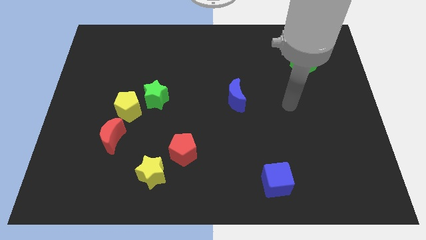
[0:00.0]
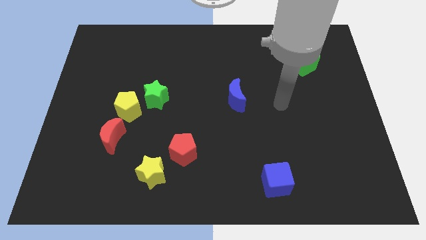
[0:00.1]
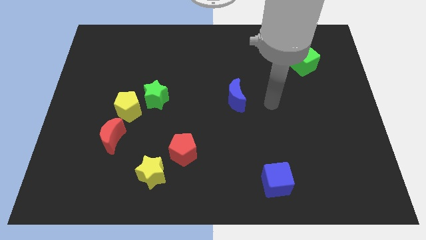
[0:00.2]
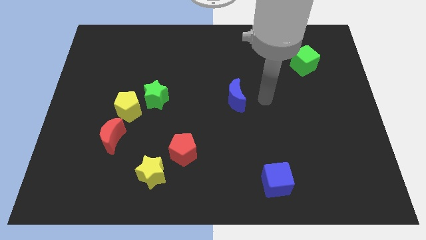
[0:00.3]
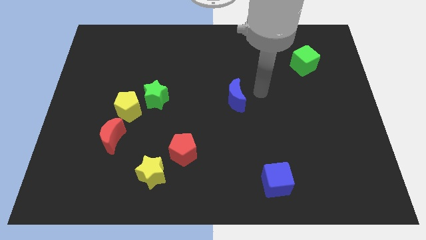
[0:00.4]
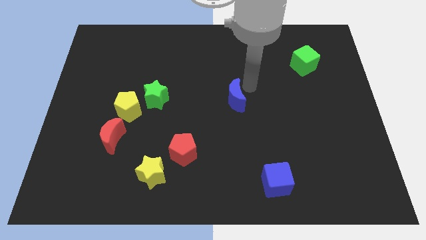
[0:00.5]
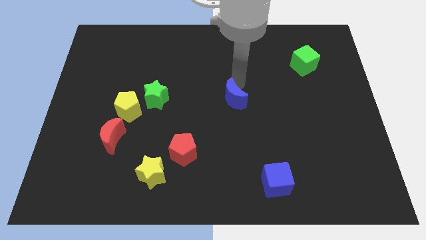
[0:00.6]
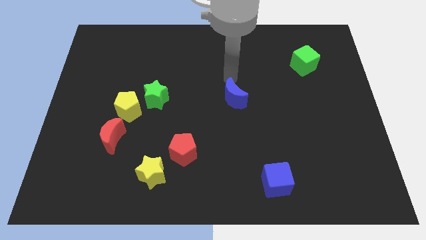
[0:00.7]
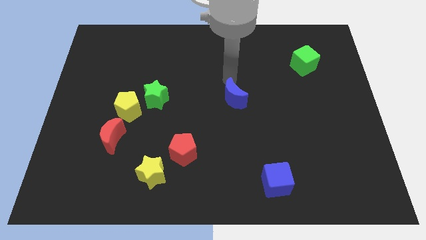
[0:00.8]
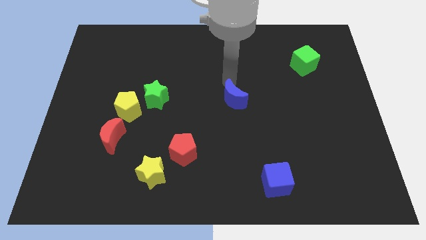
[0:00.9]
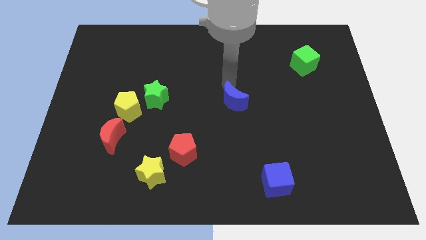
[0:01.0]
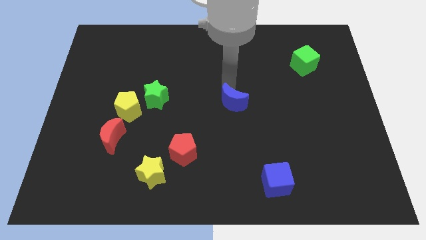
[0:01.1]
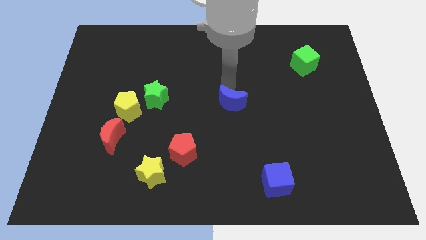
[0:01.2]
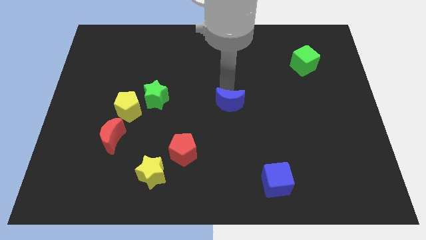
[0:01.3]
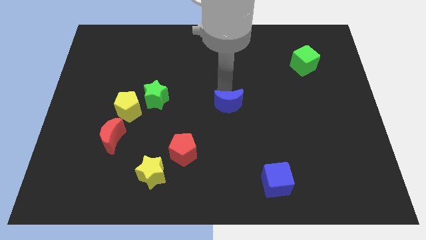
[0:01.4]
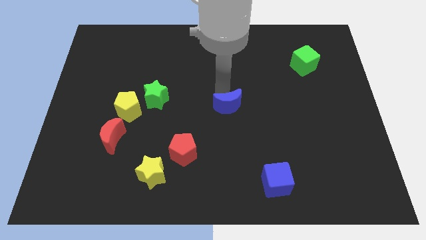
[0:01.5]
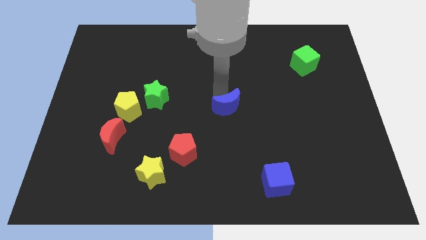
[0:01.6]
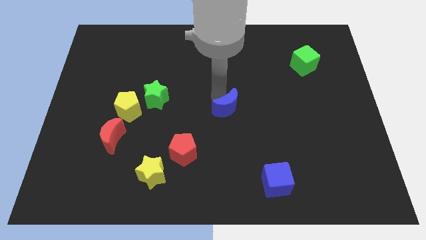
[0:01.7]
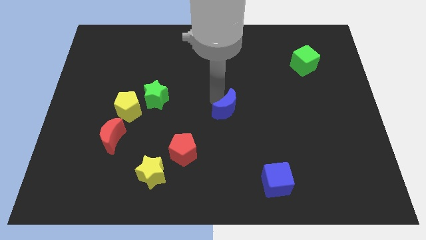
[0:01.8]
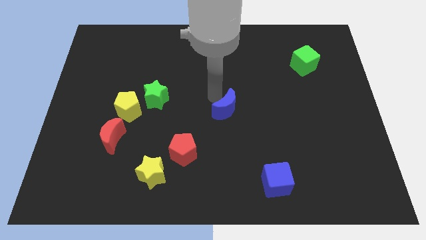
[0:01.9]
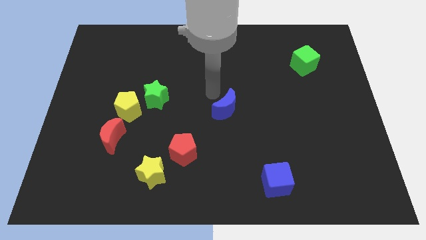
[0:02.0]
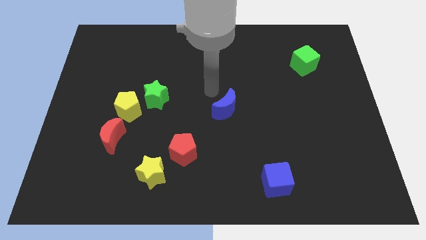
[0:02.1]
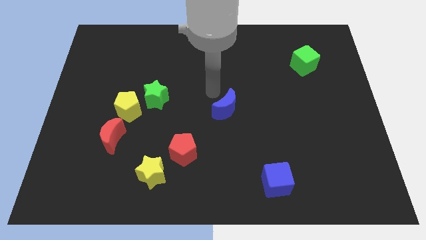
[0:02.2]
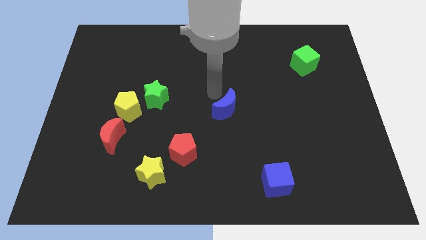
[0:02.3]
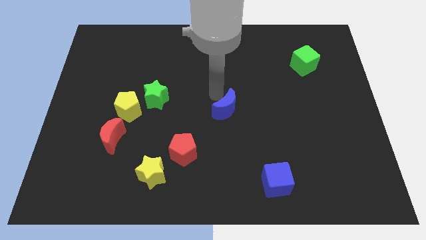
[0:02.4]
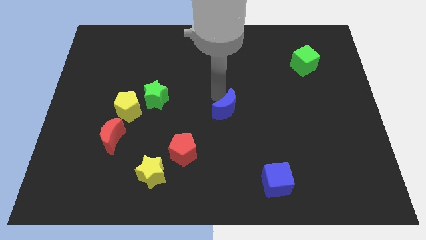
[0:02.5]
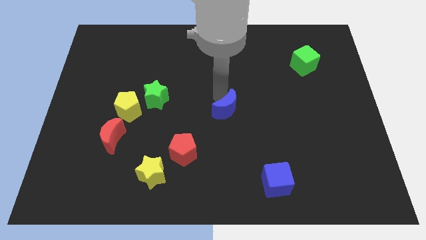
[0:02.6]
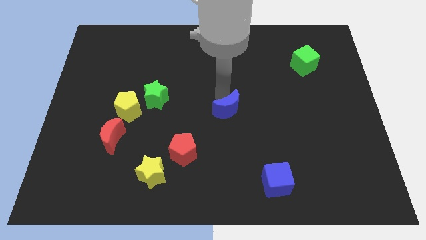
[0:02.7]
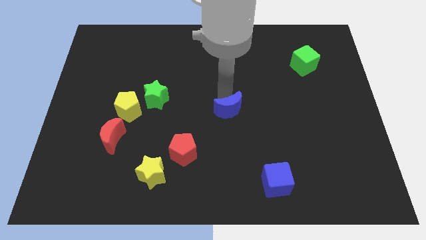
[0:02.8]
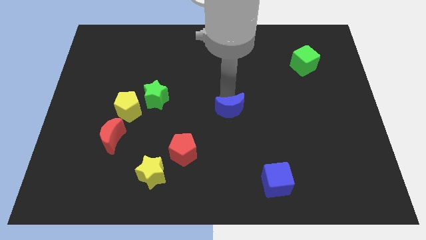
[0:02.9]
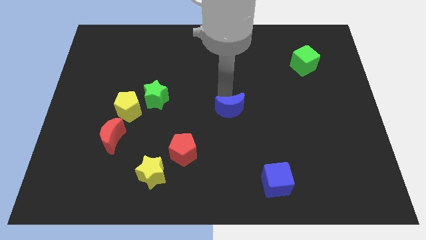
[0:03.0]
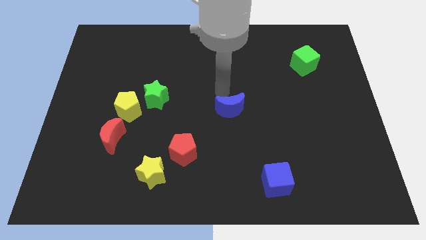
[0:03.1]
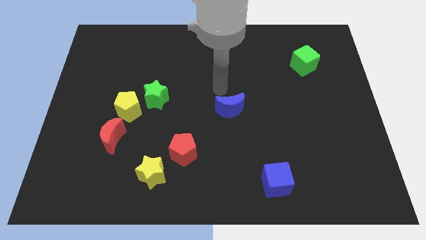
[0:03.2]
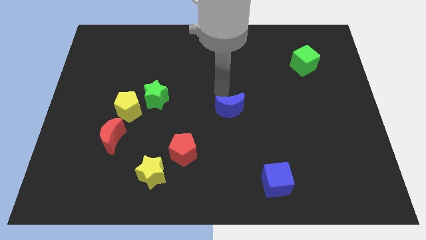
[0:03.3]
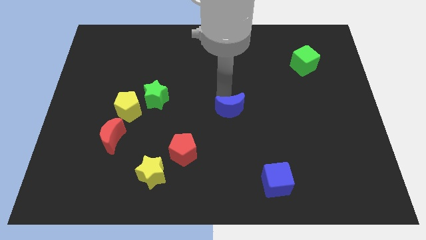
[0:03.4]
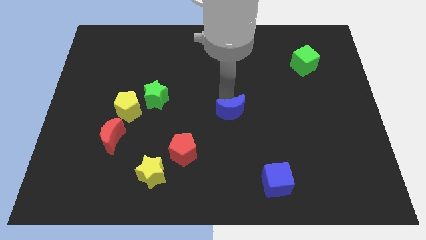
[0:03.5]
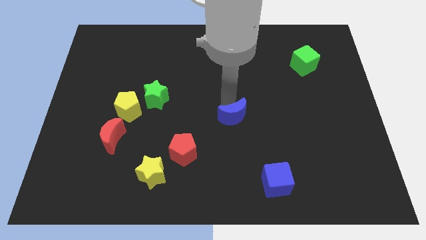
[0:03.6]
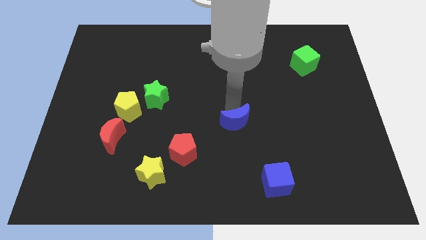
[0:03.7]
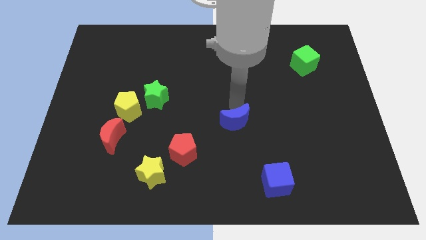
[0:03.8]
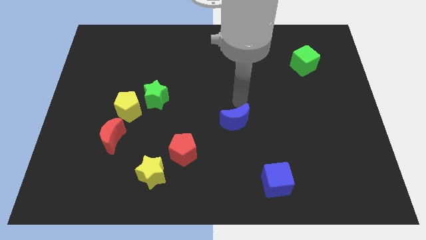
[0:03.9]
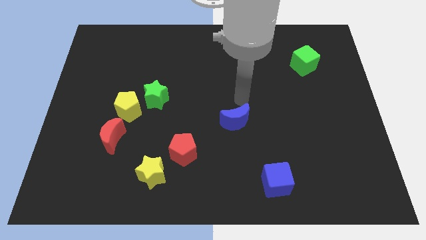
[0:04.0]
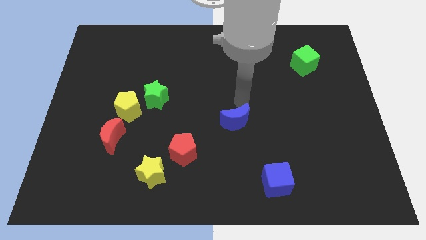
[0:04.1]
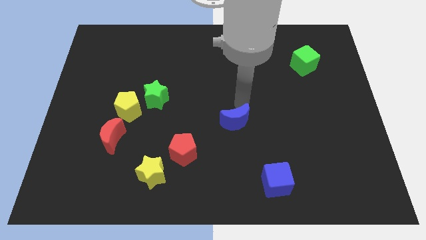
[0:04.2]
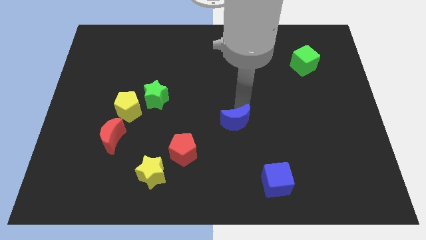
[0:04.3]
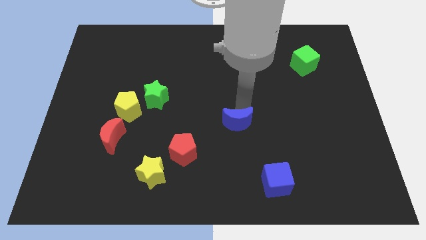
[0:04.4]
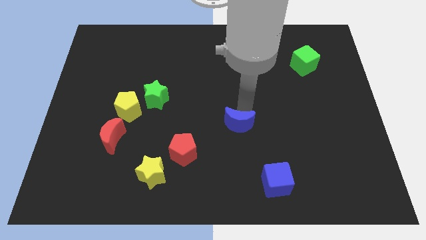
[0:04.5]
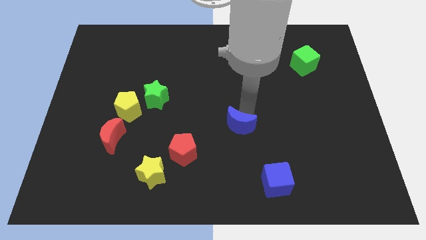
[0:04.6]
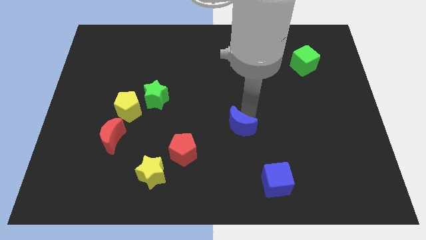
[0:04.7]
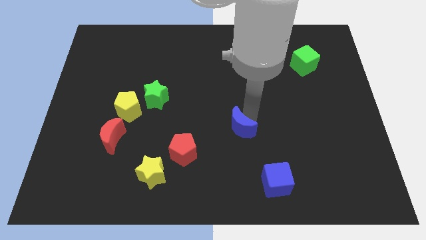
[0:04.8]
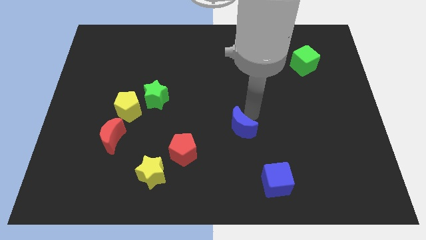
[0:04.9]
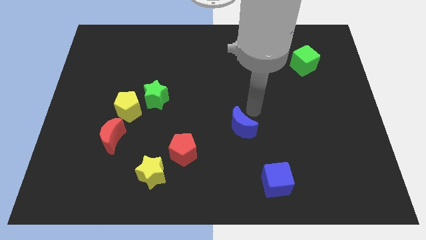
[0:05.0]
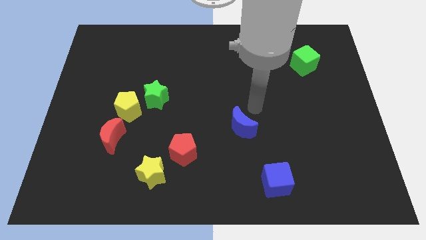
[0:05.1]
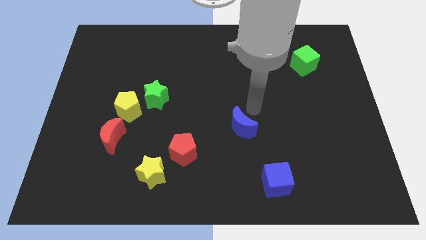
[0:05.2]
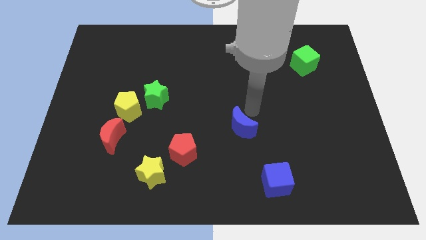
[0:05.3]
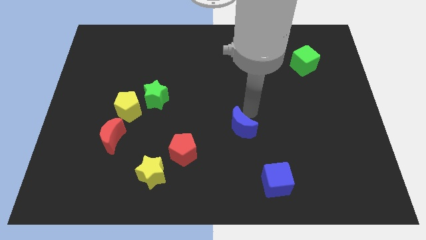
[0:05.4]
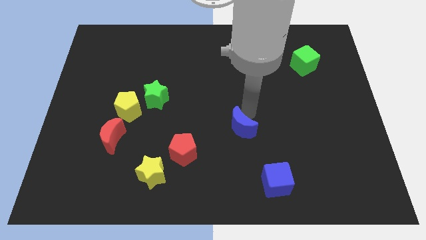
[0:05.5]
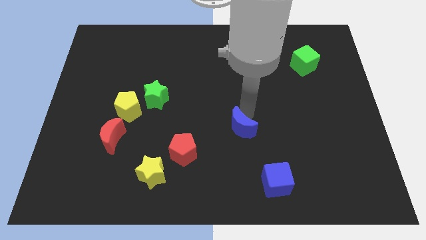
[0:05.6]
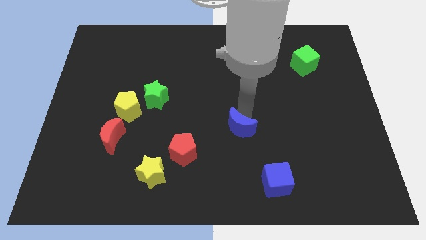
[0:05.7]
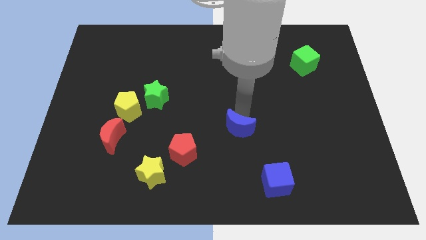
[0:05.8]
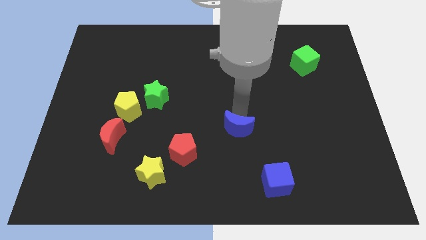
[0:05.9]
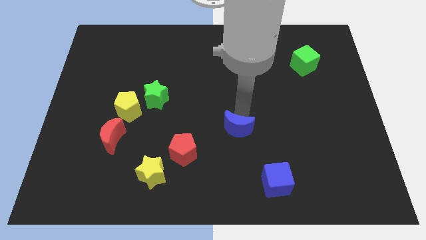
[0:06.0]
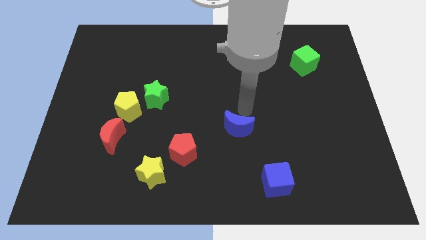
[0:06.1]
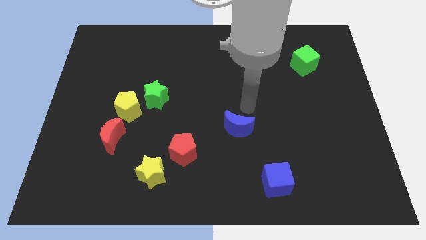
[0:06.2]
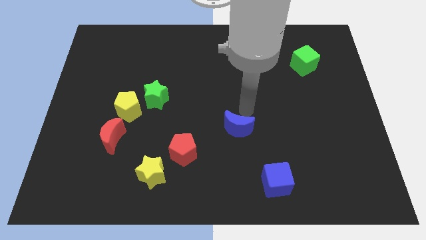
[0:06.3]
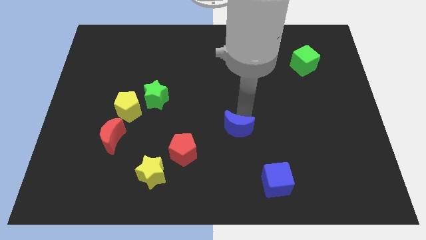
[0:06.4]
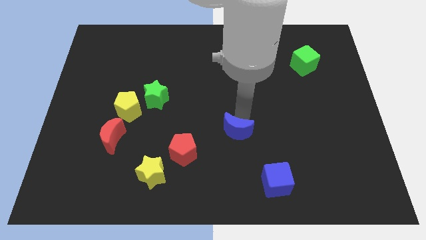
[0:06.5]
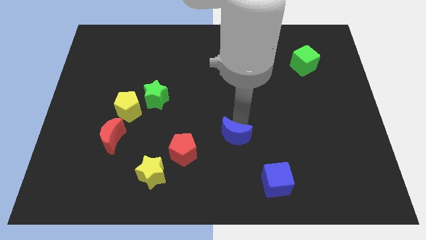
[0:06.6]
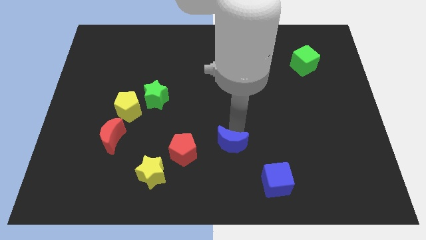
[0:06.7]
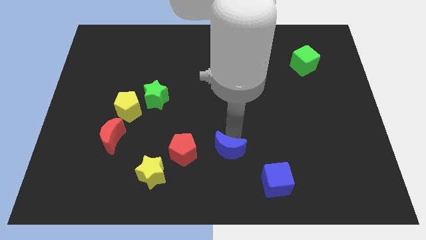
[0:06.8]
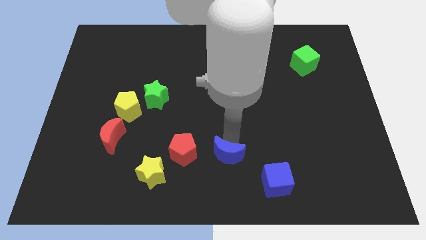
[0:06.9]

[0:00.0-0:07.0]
slide the blue moon to the bottom
